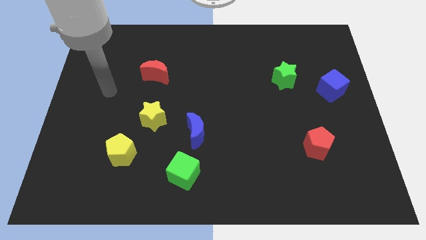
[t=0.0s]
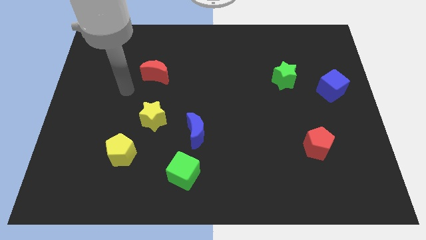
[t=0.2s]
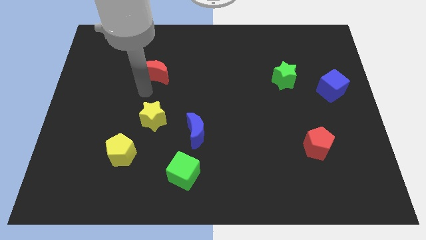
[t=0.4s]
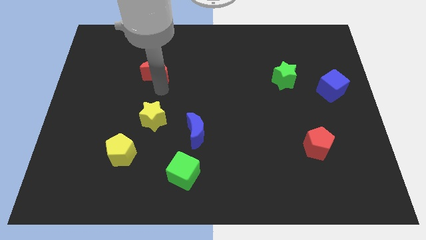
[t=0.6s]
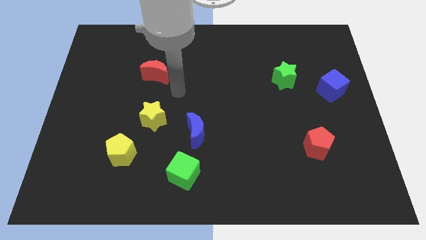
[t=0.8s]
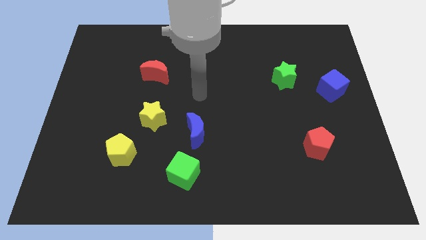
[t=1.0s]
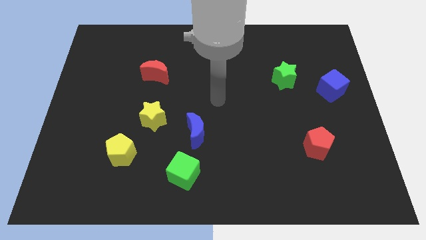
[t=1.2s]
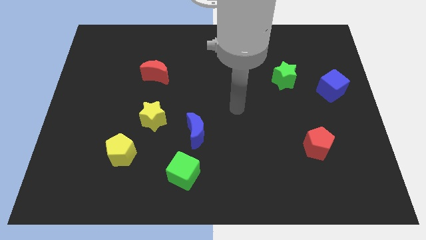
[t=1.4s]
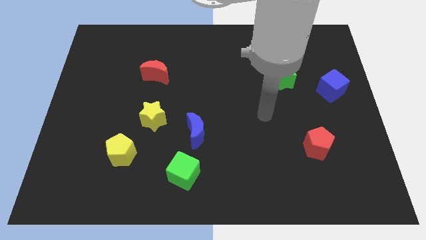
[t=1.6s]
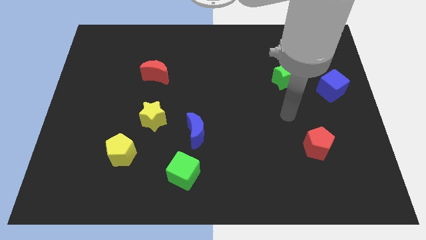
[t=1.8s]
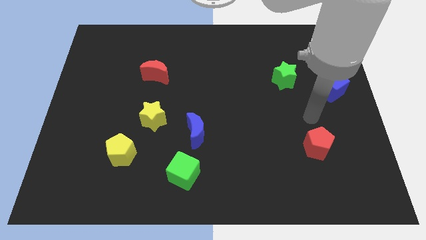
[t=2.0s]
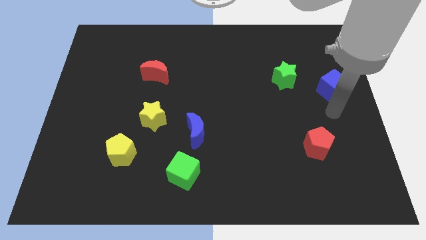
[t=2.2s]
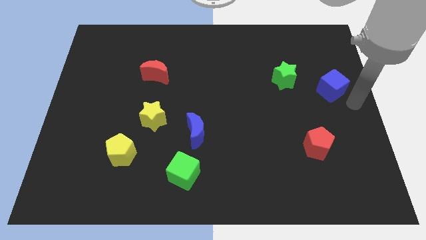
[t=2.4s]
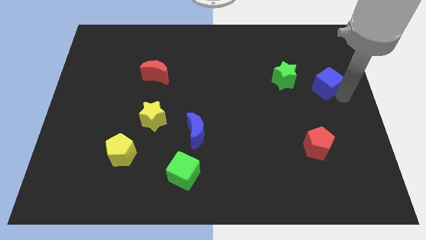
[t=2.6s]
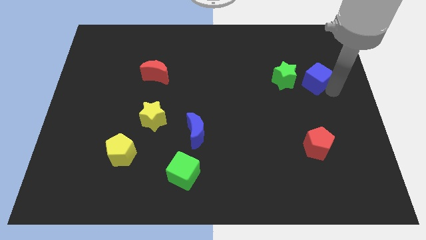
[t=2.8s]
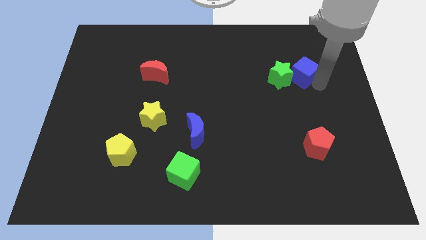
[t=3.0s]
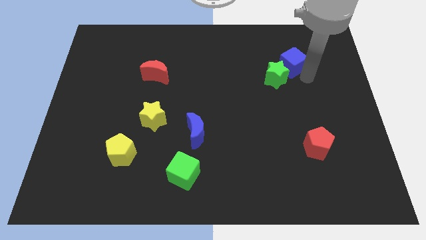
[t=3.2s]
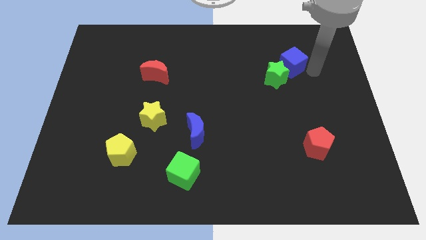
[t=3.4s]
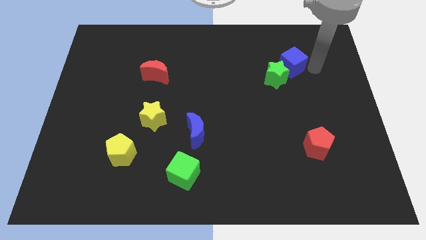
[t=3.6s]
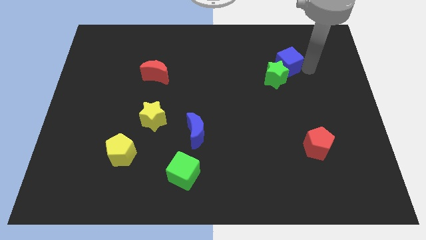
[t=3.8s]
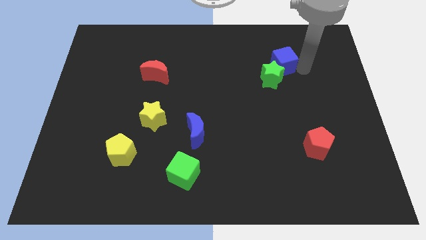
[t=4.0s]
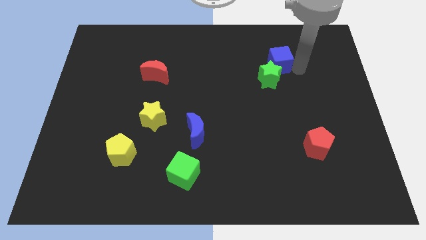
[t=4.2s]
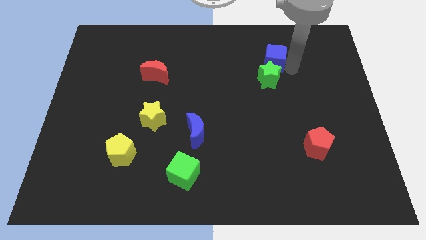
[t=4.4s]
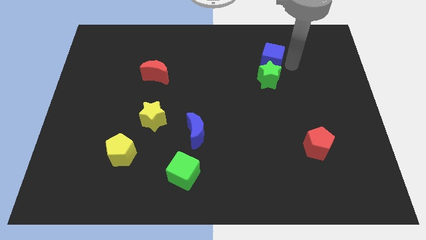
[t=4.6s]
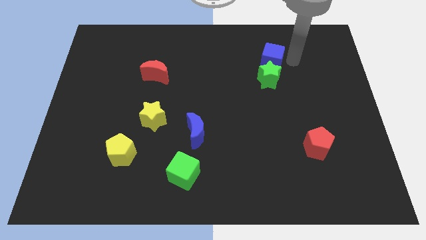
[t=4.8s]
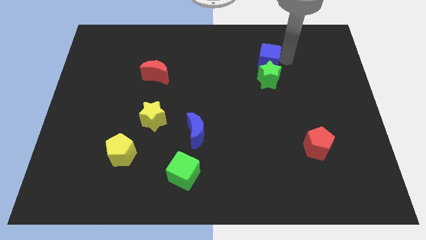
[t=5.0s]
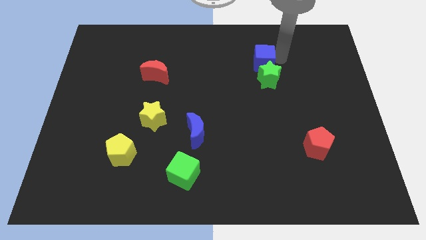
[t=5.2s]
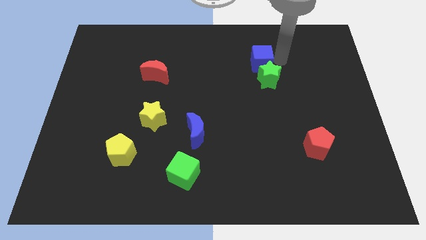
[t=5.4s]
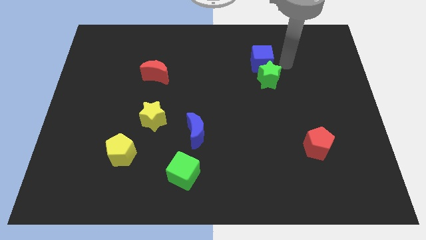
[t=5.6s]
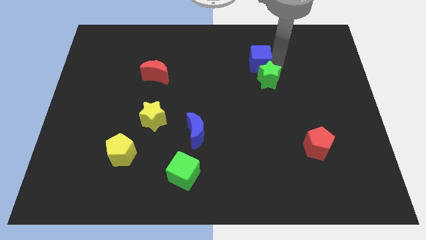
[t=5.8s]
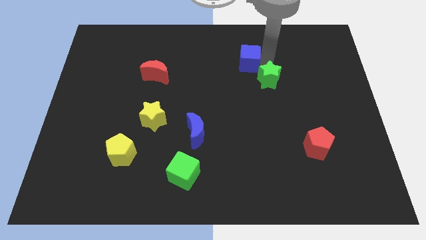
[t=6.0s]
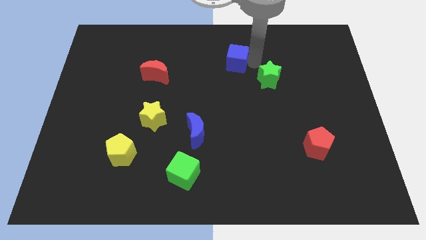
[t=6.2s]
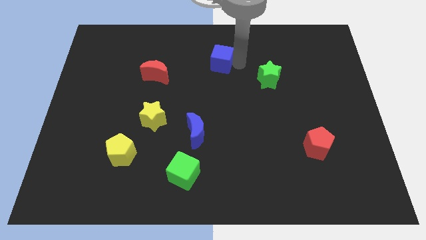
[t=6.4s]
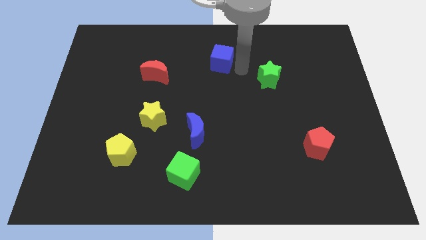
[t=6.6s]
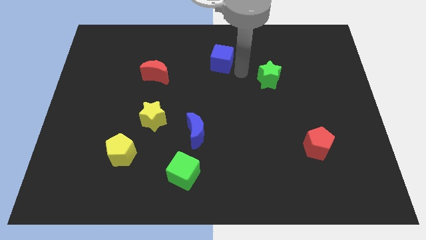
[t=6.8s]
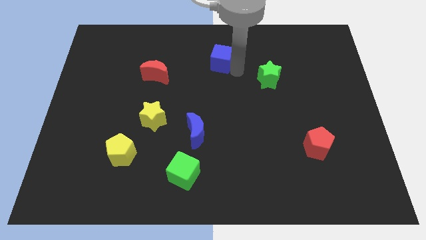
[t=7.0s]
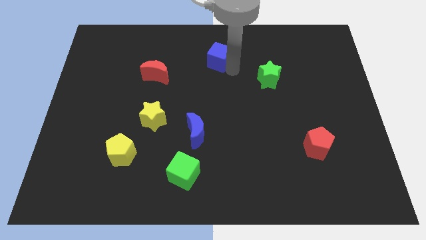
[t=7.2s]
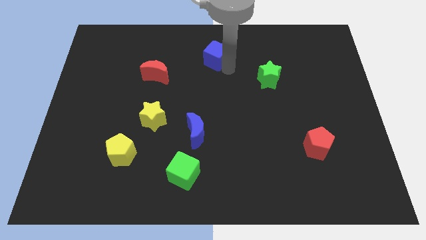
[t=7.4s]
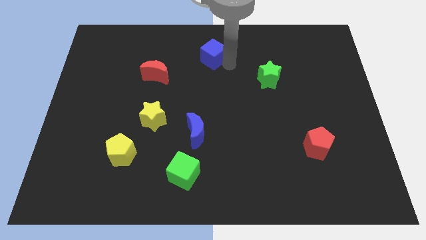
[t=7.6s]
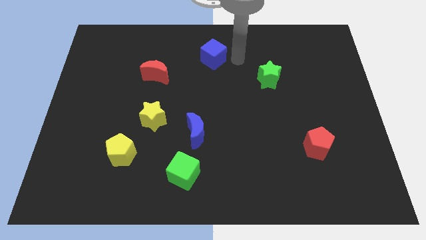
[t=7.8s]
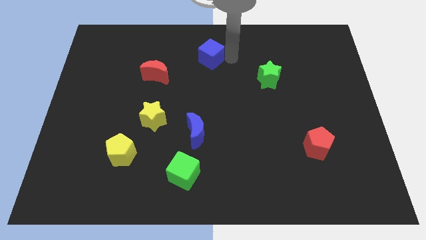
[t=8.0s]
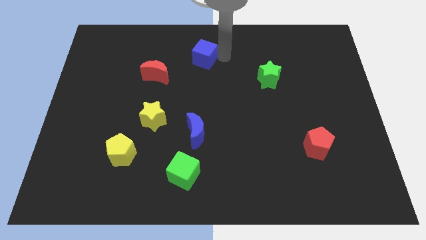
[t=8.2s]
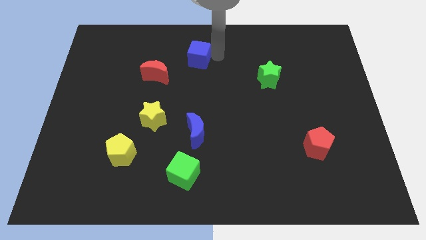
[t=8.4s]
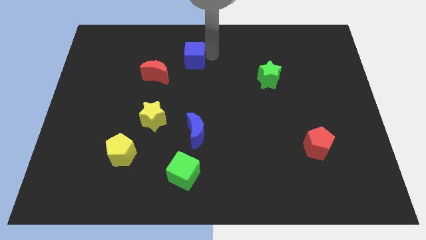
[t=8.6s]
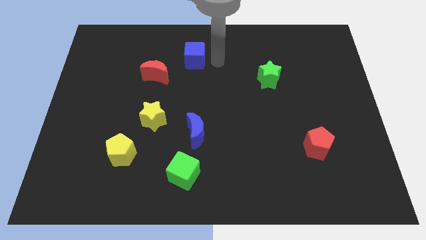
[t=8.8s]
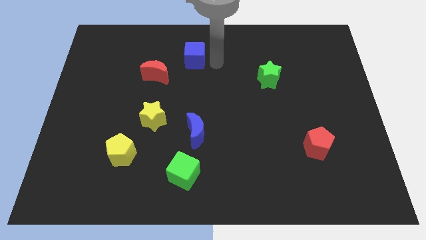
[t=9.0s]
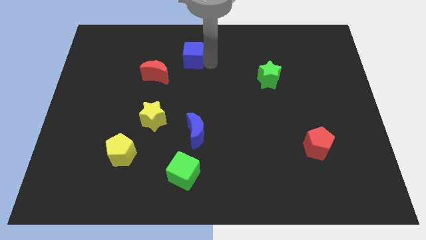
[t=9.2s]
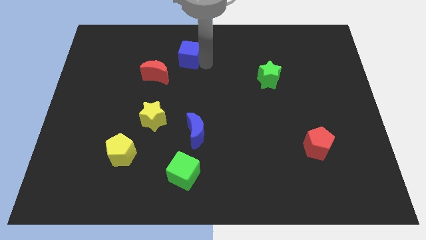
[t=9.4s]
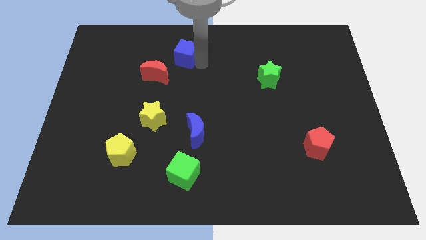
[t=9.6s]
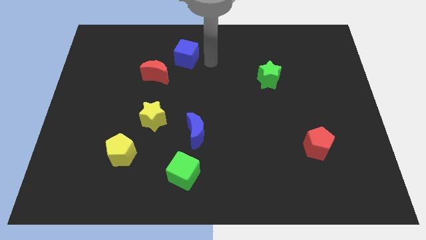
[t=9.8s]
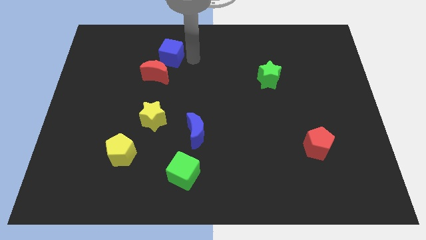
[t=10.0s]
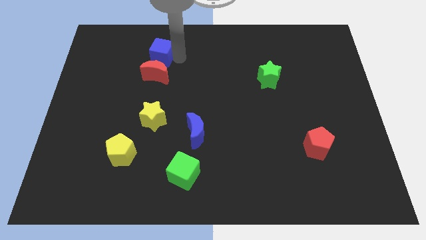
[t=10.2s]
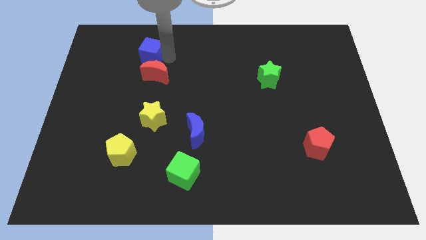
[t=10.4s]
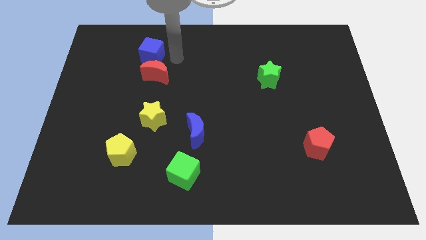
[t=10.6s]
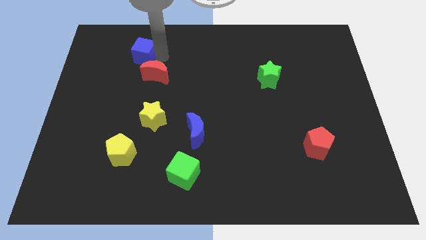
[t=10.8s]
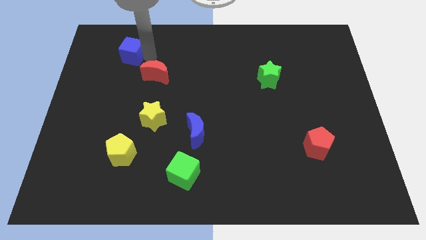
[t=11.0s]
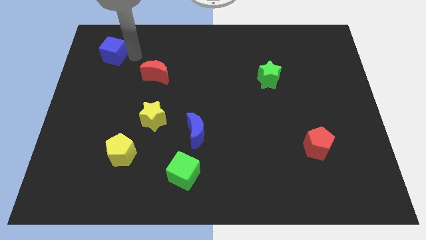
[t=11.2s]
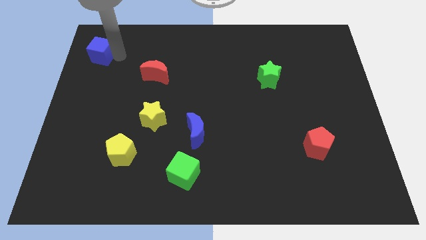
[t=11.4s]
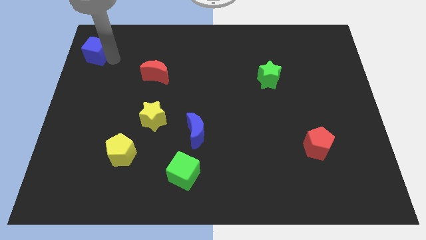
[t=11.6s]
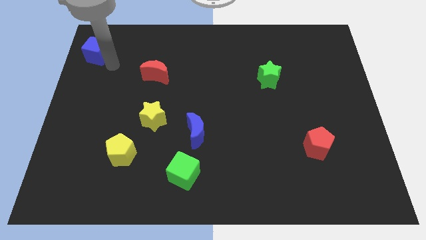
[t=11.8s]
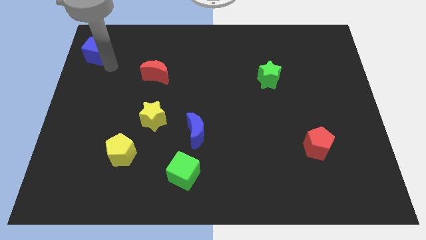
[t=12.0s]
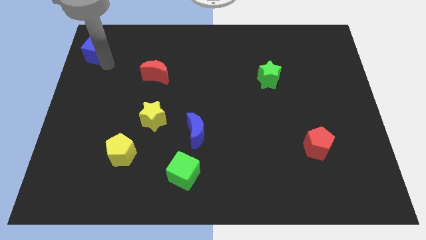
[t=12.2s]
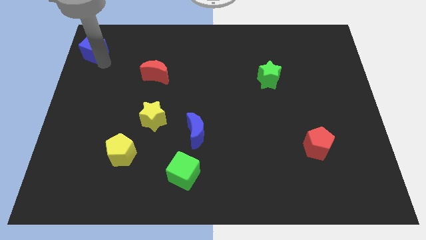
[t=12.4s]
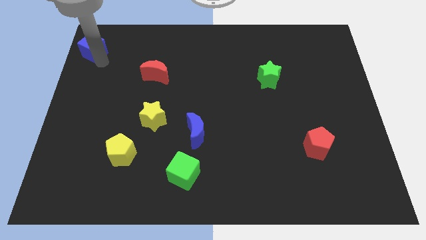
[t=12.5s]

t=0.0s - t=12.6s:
put the blue cube to the upper left corner

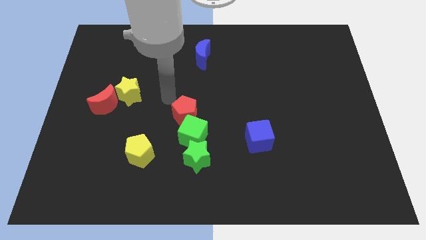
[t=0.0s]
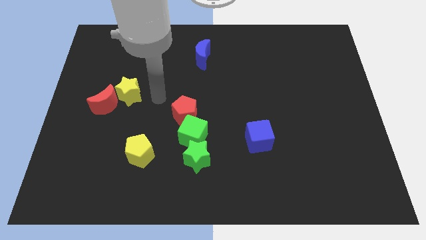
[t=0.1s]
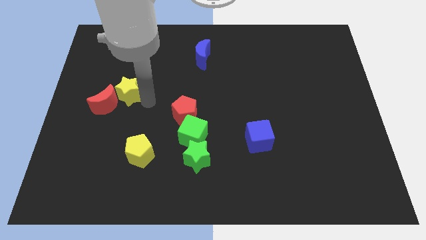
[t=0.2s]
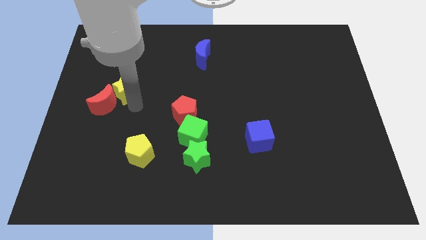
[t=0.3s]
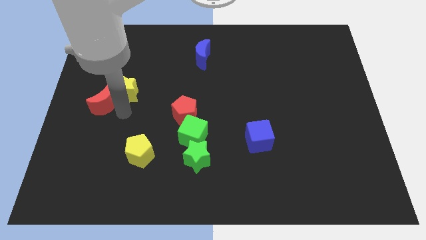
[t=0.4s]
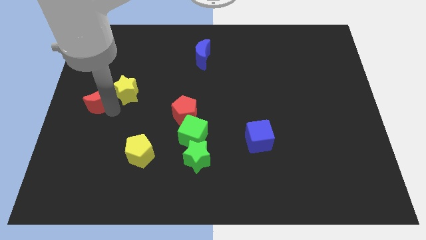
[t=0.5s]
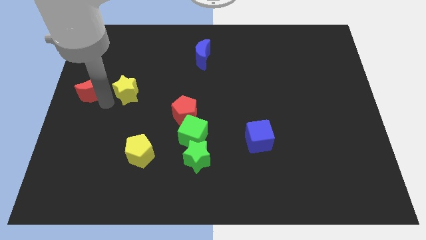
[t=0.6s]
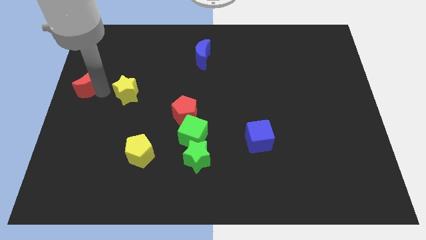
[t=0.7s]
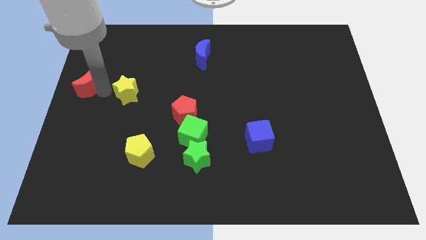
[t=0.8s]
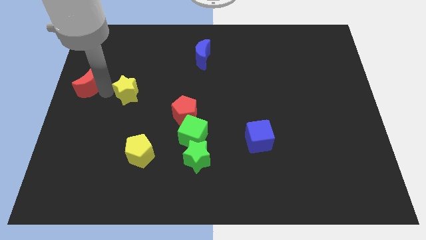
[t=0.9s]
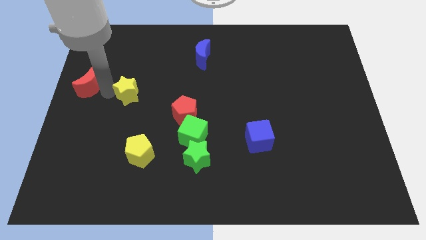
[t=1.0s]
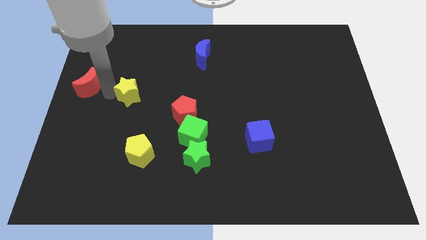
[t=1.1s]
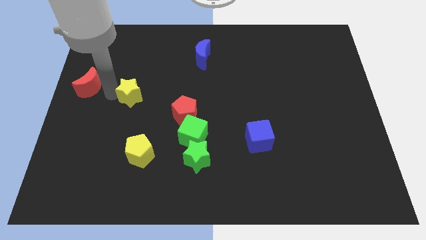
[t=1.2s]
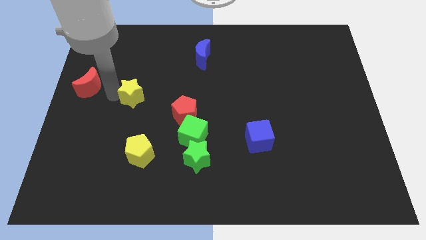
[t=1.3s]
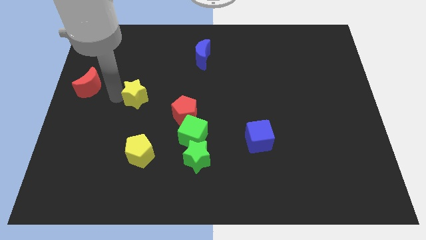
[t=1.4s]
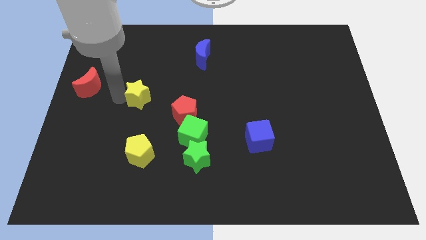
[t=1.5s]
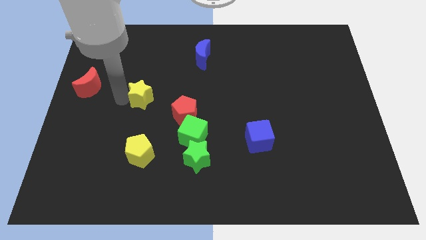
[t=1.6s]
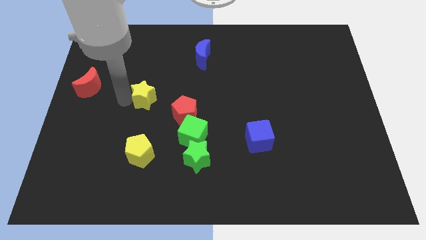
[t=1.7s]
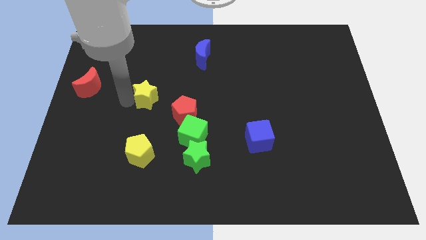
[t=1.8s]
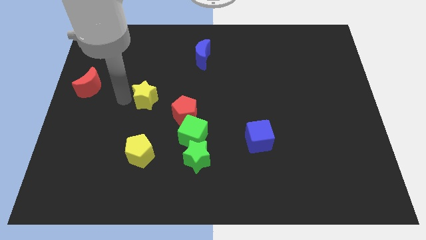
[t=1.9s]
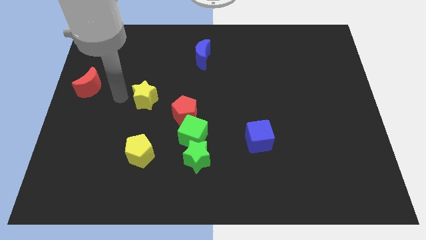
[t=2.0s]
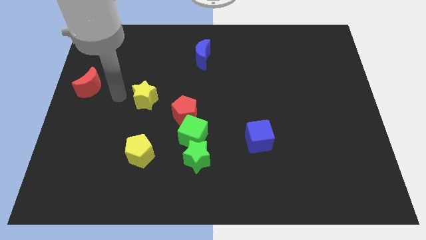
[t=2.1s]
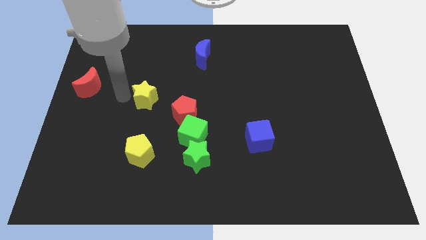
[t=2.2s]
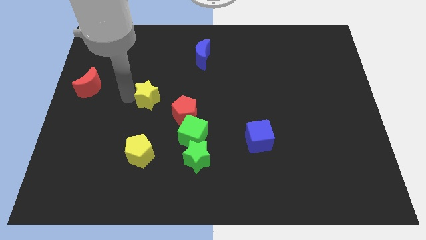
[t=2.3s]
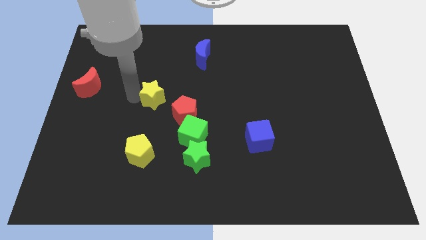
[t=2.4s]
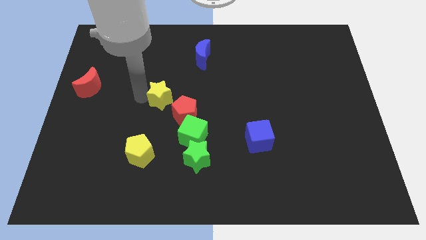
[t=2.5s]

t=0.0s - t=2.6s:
slide the yellow star to the center of the board
